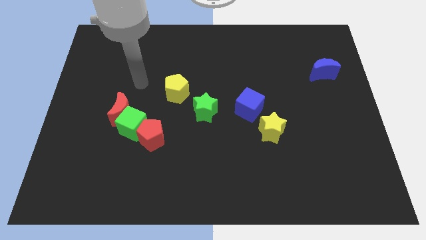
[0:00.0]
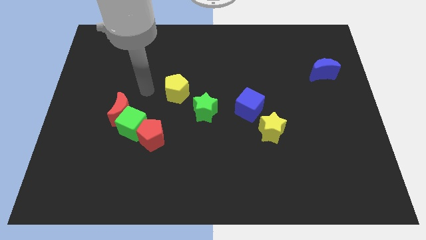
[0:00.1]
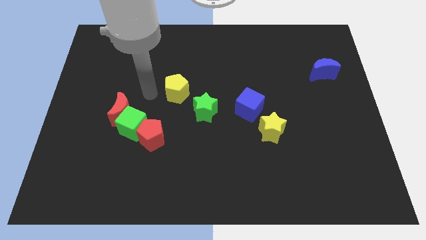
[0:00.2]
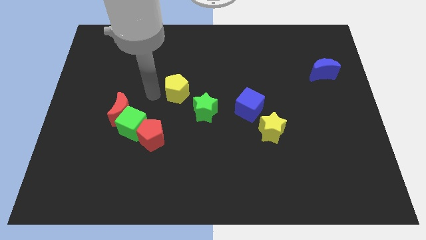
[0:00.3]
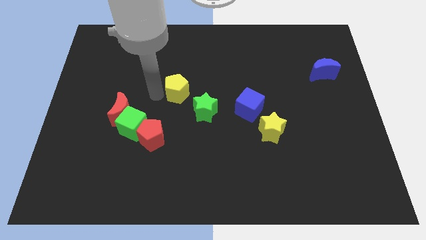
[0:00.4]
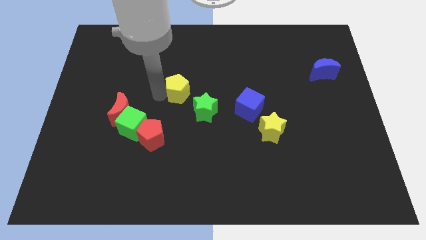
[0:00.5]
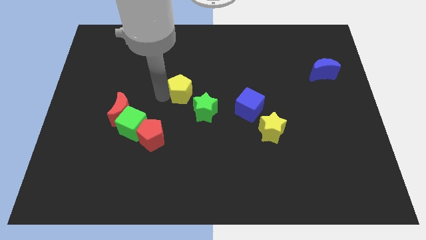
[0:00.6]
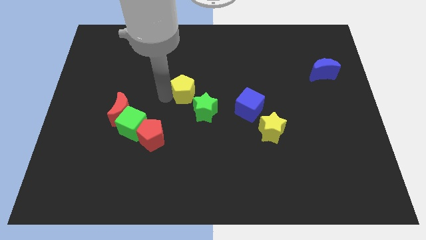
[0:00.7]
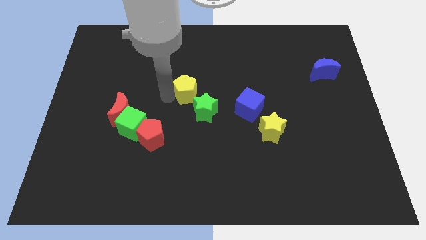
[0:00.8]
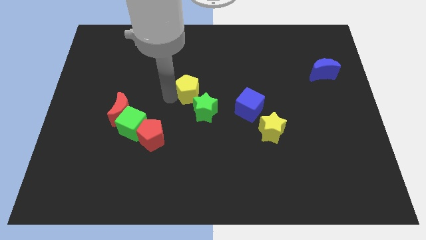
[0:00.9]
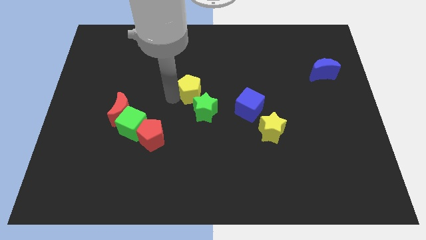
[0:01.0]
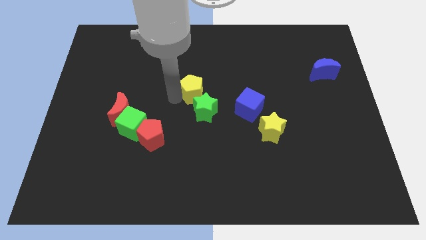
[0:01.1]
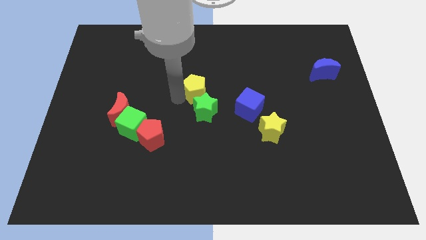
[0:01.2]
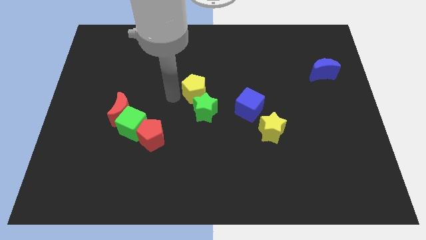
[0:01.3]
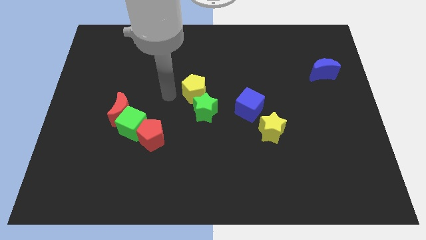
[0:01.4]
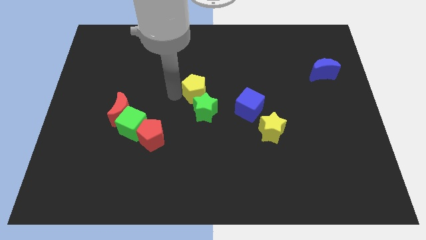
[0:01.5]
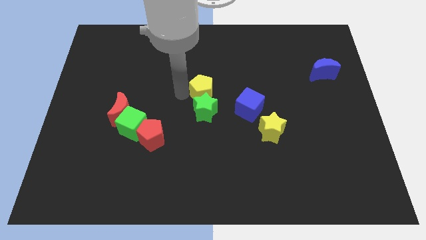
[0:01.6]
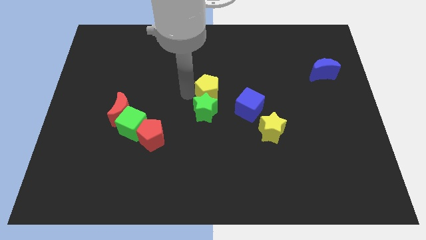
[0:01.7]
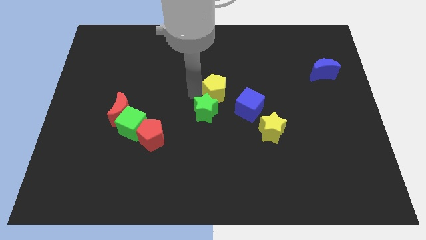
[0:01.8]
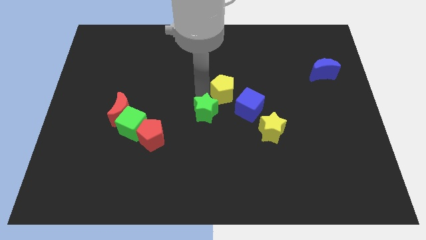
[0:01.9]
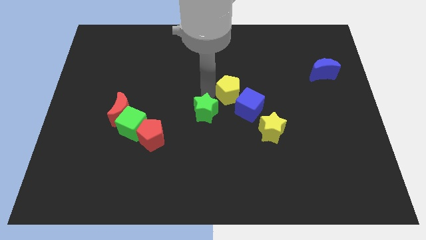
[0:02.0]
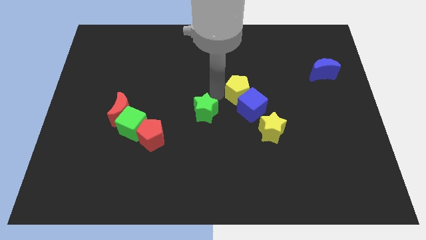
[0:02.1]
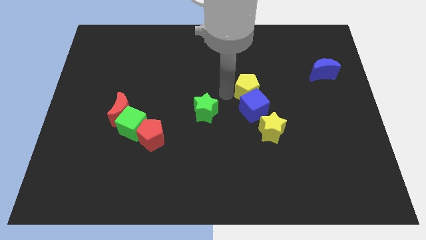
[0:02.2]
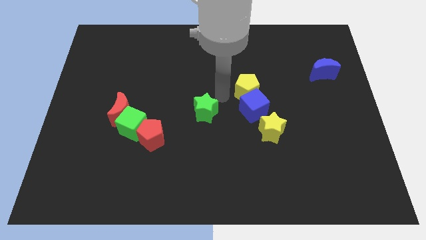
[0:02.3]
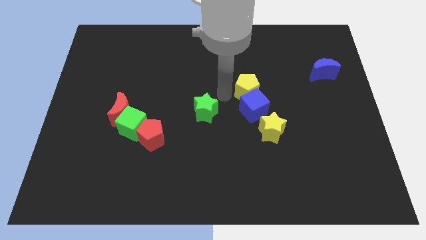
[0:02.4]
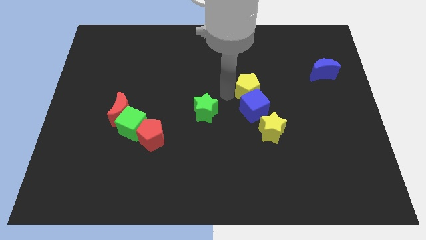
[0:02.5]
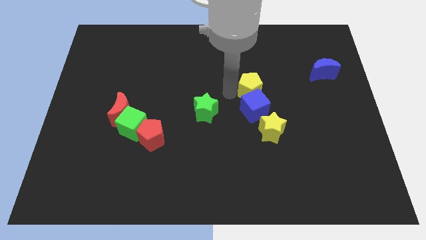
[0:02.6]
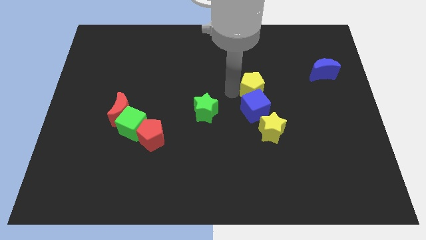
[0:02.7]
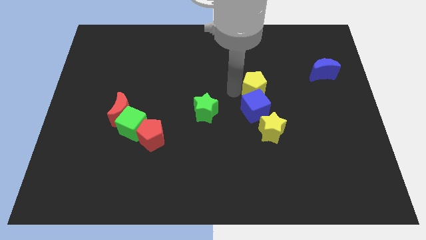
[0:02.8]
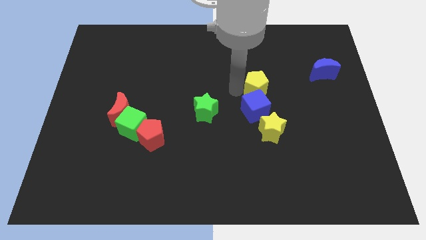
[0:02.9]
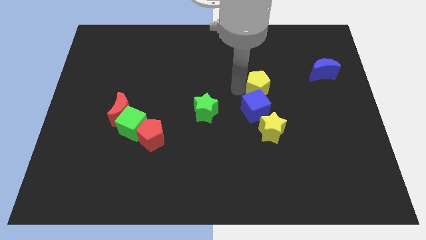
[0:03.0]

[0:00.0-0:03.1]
push the yellow pentagon right

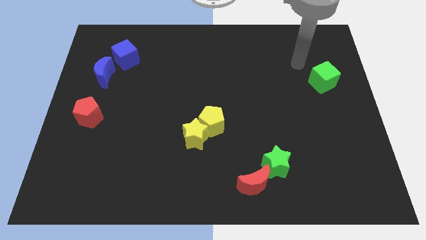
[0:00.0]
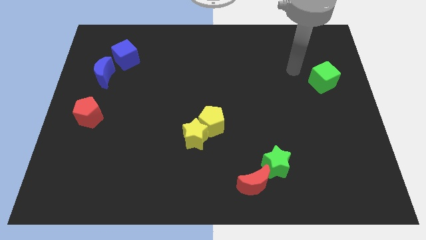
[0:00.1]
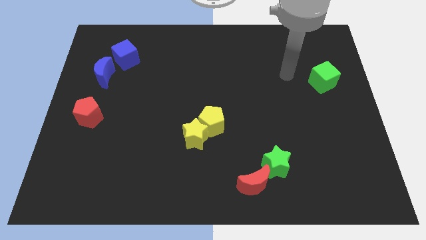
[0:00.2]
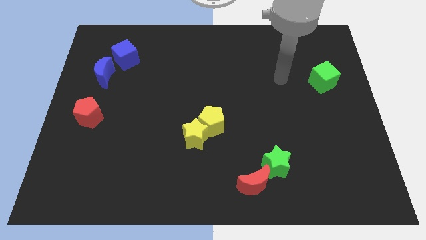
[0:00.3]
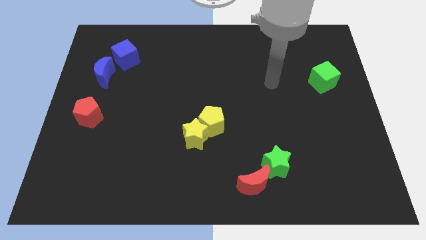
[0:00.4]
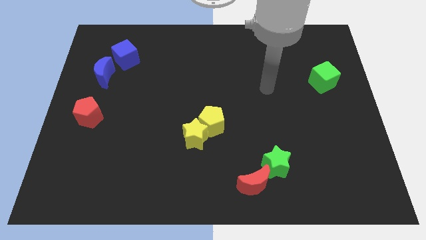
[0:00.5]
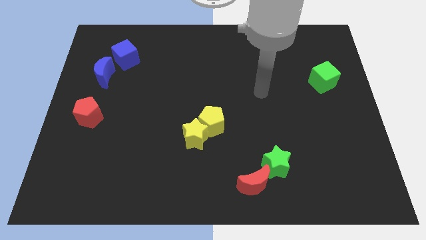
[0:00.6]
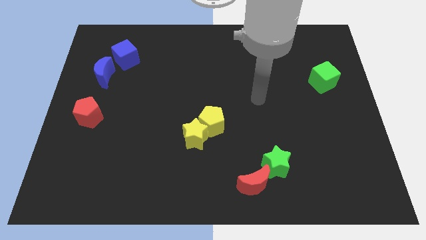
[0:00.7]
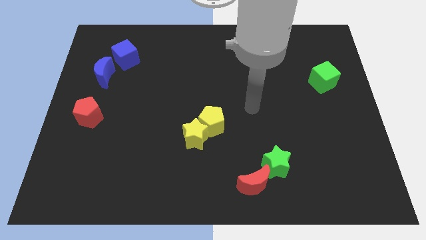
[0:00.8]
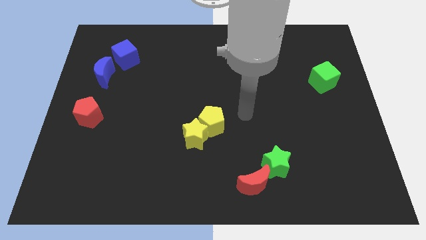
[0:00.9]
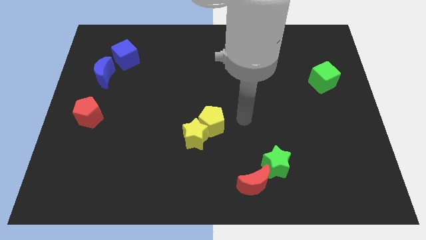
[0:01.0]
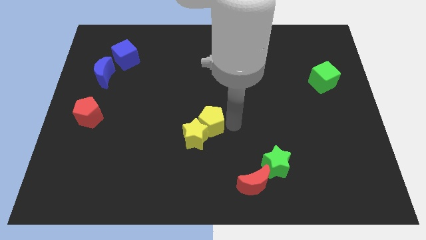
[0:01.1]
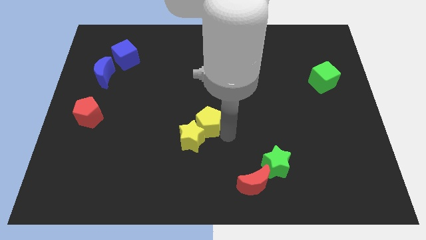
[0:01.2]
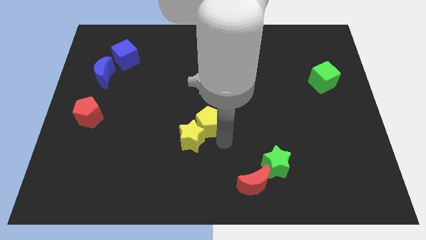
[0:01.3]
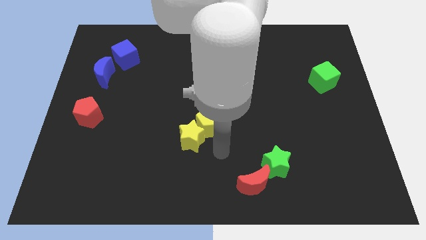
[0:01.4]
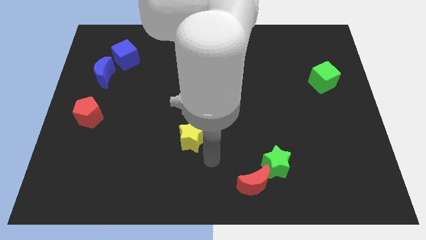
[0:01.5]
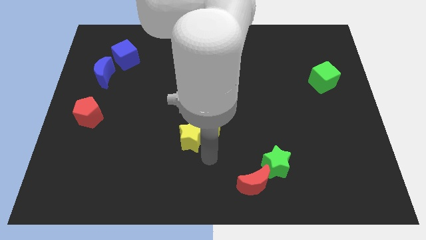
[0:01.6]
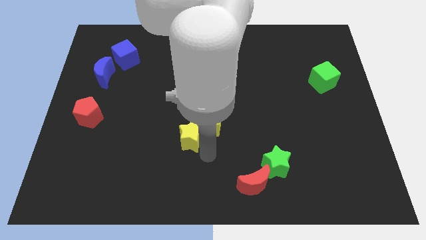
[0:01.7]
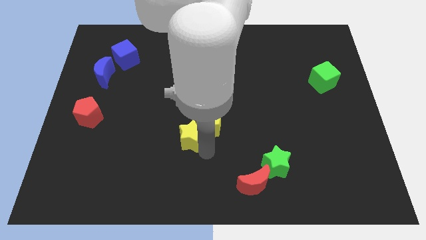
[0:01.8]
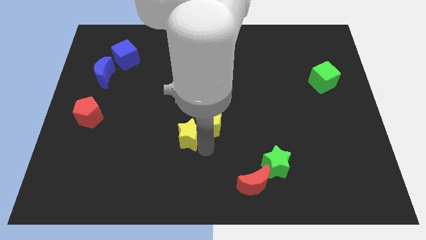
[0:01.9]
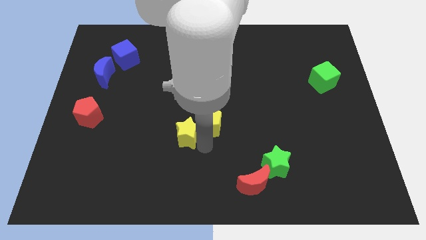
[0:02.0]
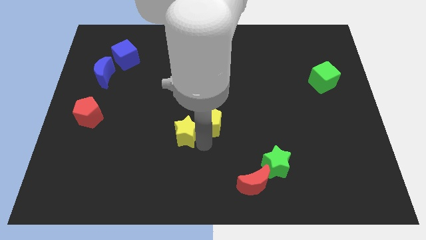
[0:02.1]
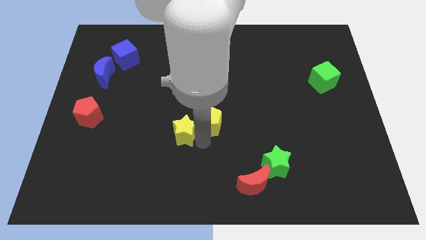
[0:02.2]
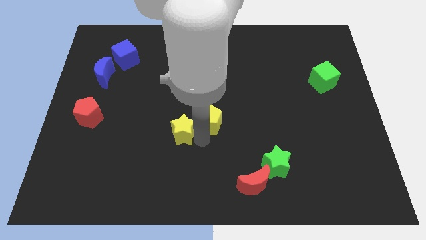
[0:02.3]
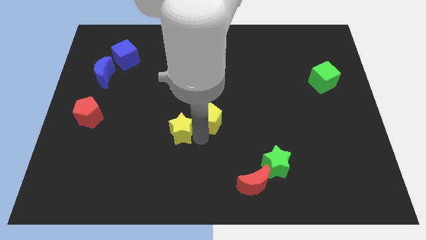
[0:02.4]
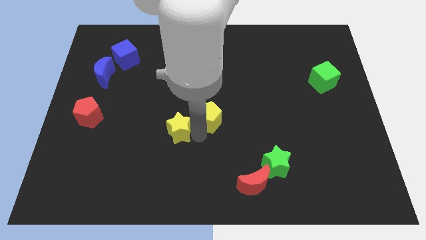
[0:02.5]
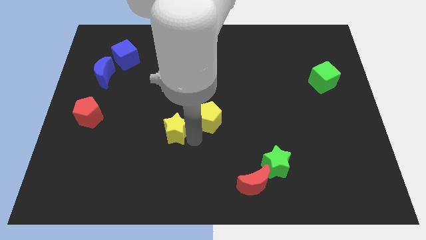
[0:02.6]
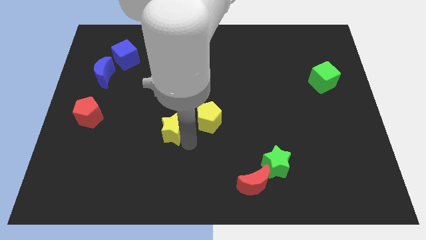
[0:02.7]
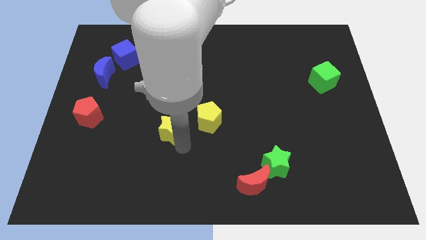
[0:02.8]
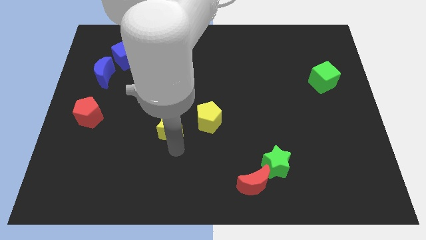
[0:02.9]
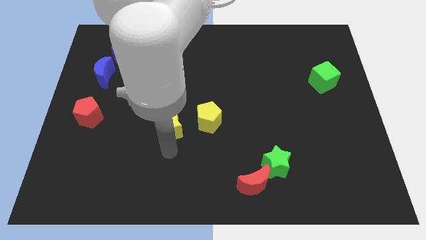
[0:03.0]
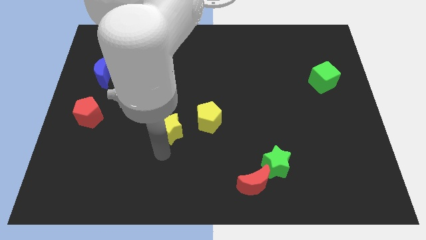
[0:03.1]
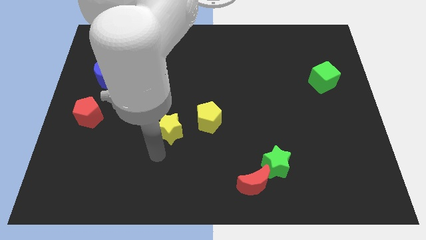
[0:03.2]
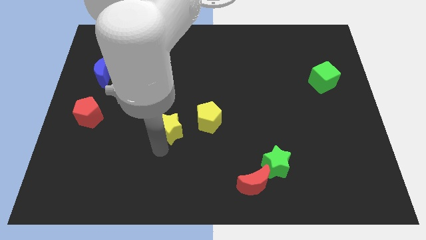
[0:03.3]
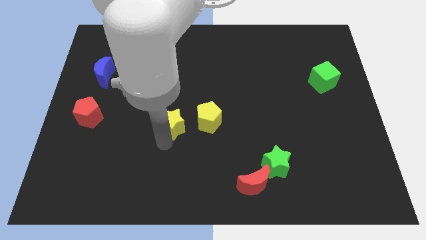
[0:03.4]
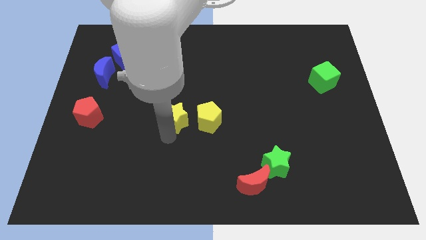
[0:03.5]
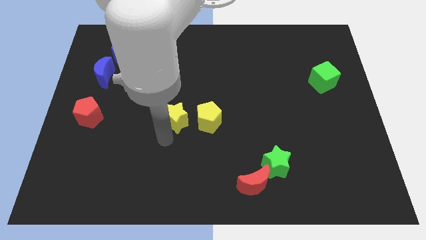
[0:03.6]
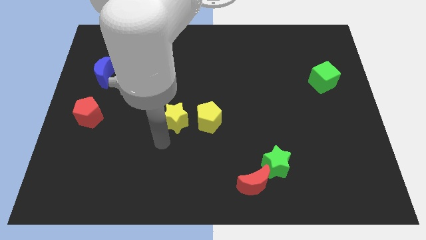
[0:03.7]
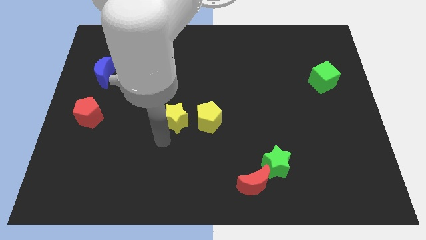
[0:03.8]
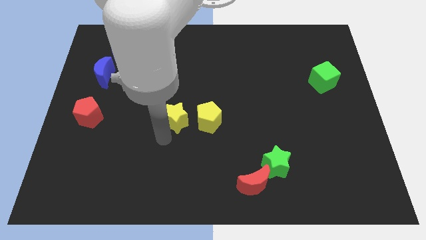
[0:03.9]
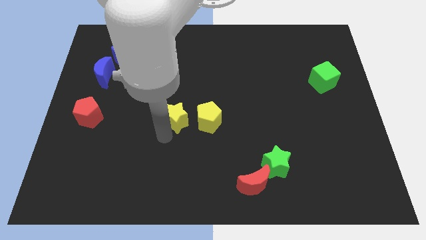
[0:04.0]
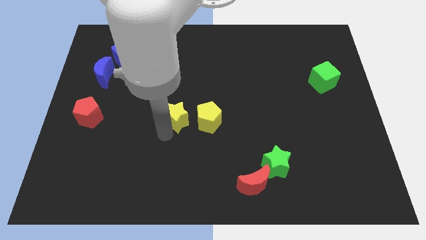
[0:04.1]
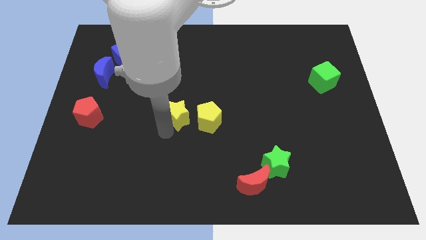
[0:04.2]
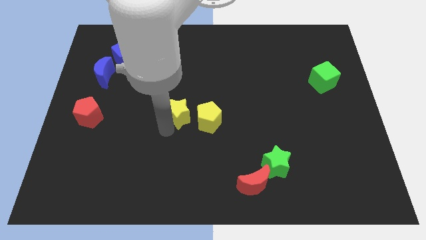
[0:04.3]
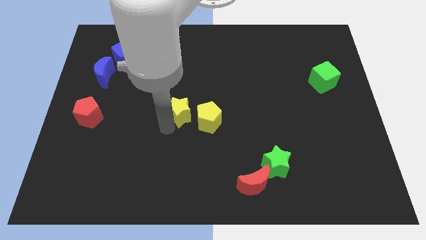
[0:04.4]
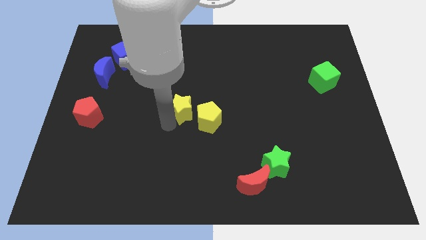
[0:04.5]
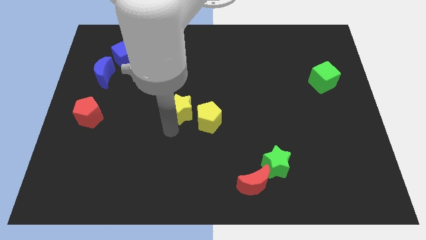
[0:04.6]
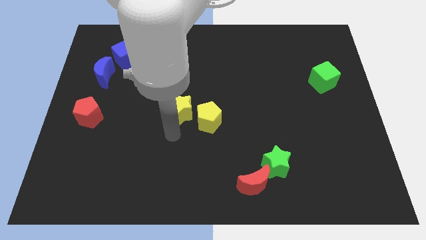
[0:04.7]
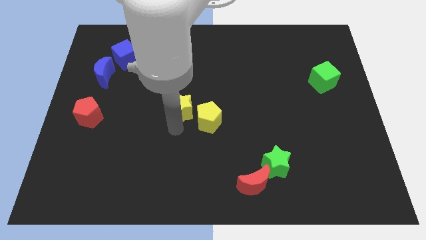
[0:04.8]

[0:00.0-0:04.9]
slightly slide the yellow star upwards
